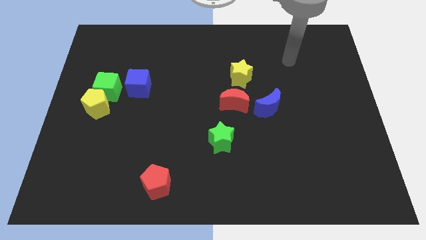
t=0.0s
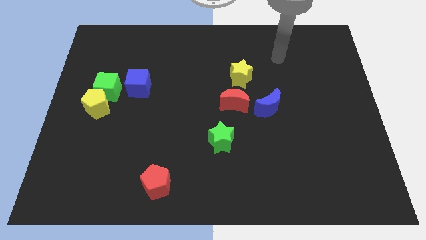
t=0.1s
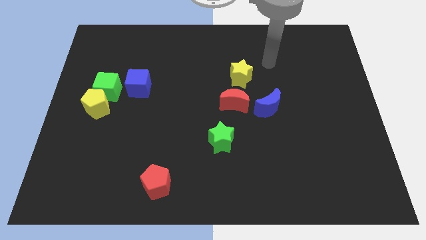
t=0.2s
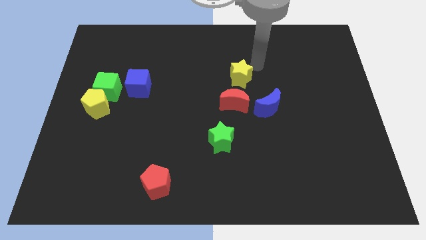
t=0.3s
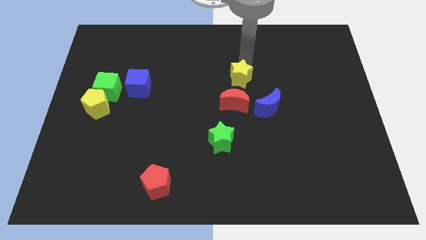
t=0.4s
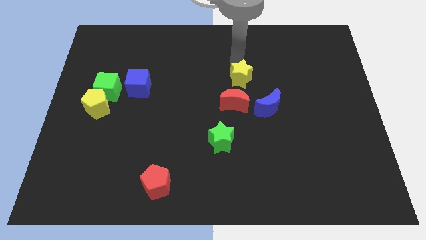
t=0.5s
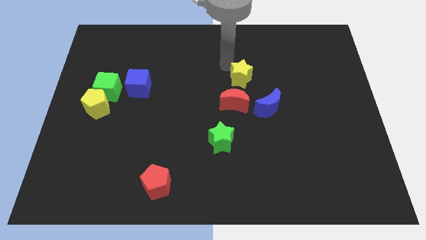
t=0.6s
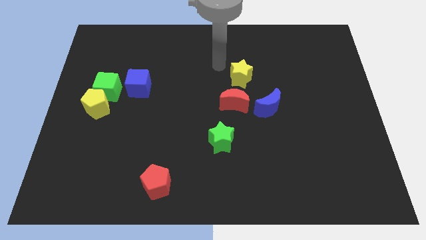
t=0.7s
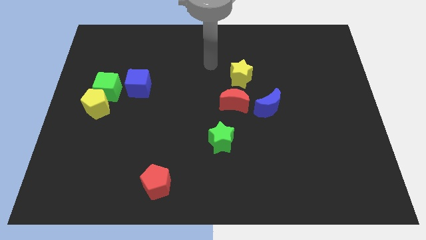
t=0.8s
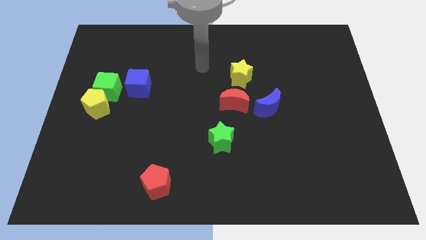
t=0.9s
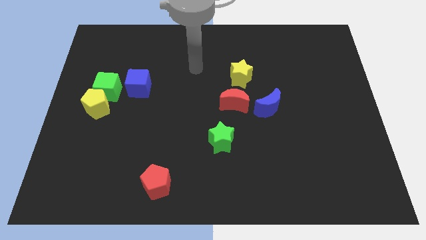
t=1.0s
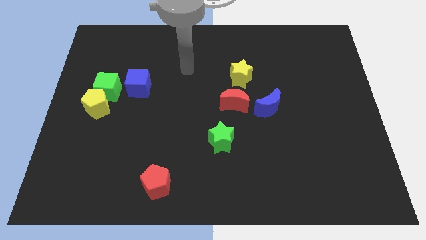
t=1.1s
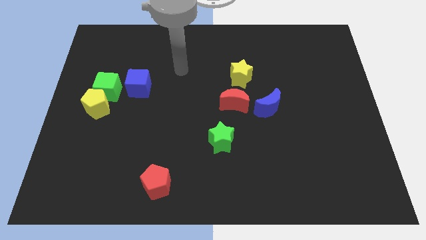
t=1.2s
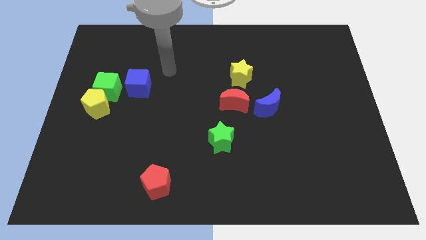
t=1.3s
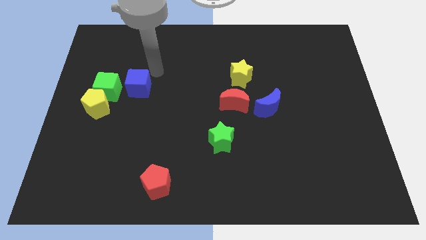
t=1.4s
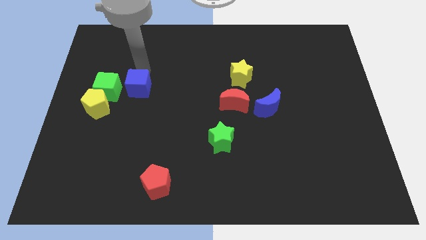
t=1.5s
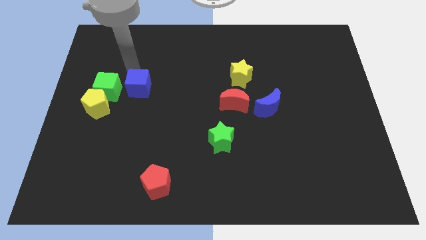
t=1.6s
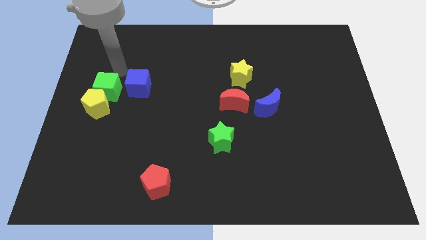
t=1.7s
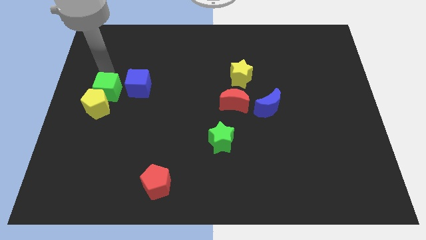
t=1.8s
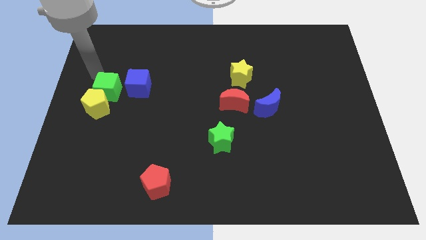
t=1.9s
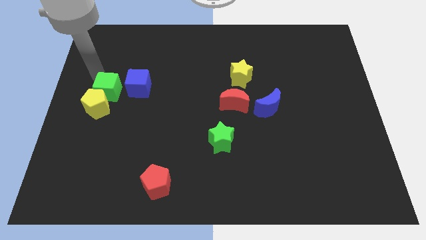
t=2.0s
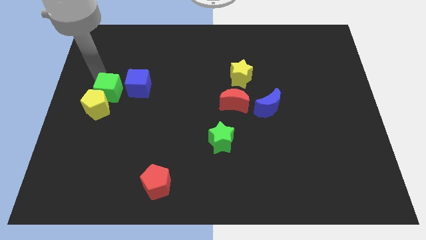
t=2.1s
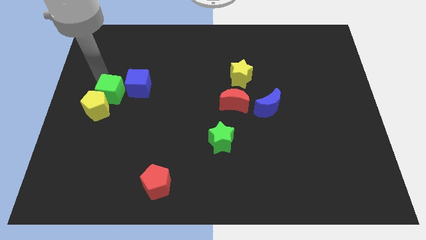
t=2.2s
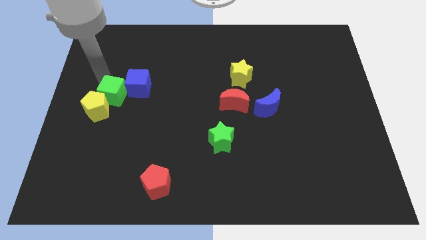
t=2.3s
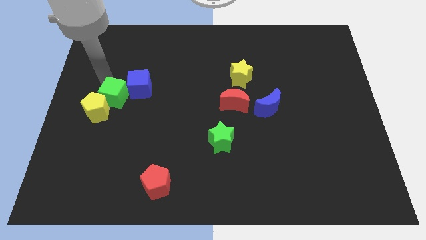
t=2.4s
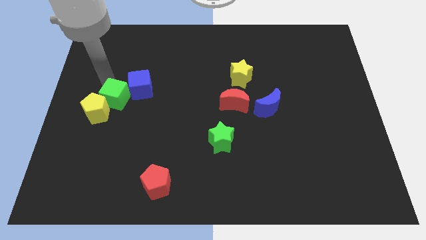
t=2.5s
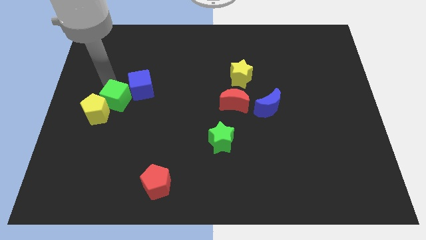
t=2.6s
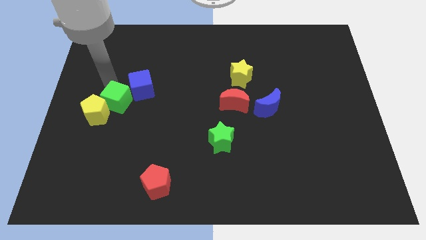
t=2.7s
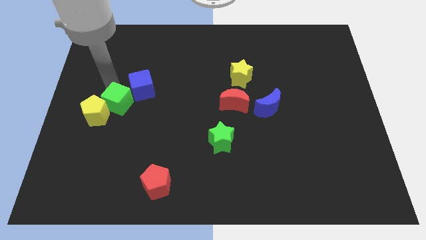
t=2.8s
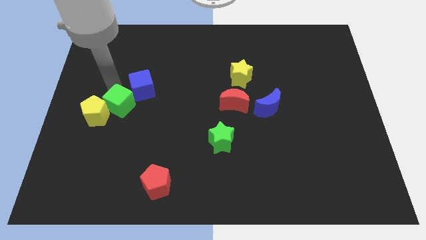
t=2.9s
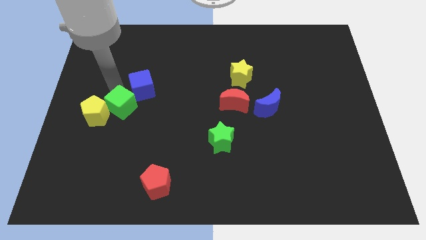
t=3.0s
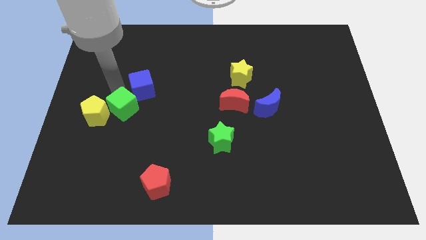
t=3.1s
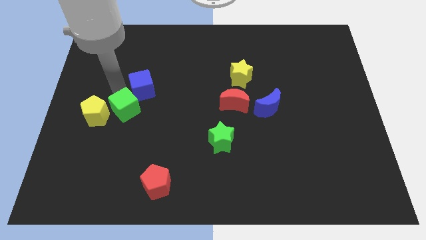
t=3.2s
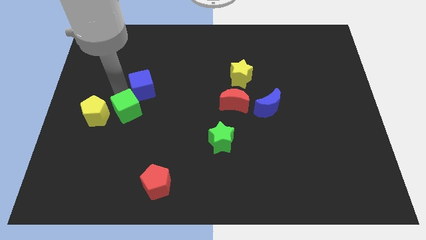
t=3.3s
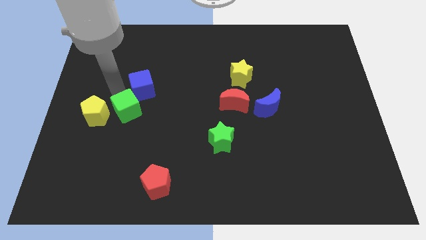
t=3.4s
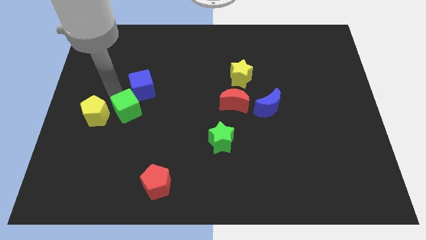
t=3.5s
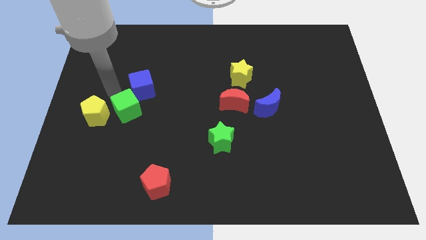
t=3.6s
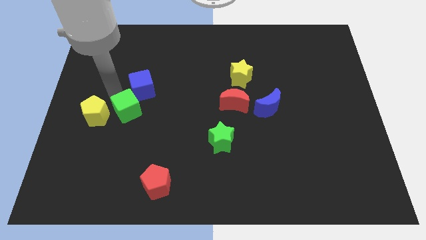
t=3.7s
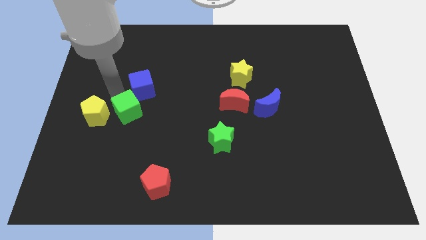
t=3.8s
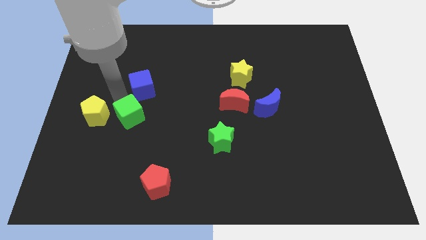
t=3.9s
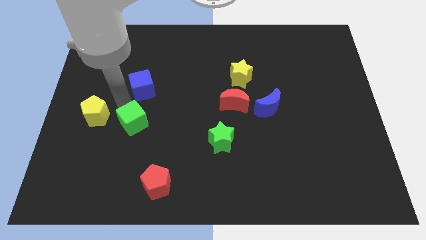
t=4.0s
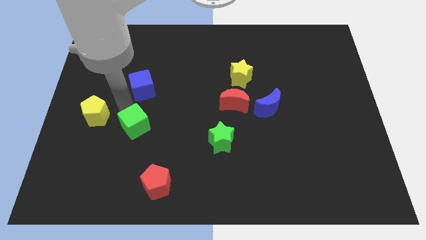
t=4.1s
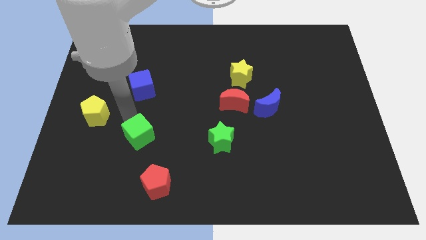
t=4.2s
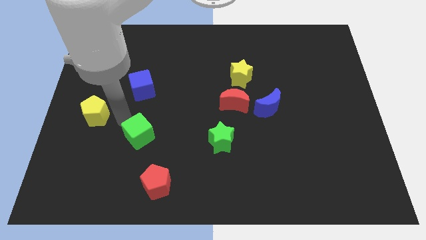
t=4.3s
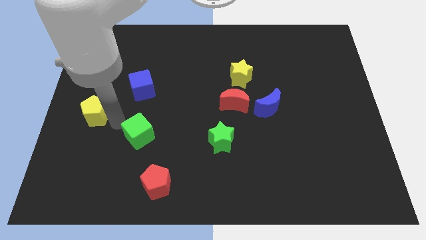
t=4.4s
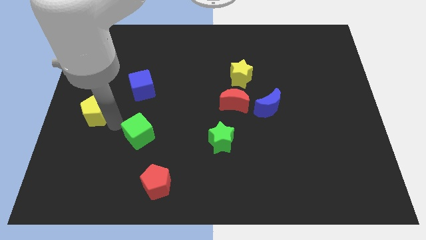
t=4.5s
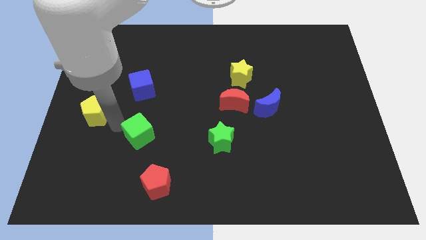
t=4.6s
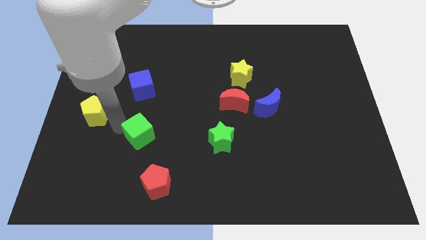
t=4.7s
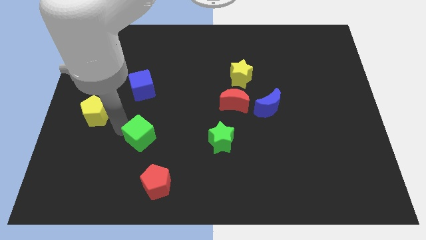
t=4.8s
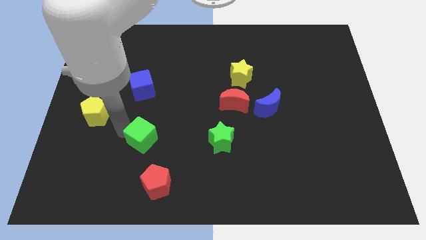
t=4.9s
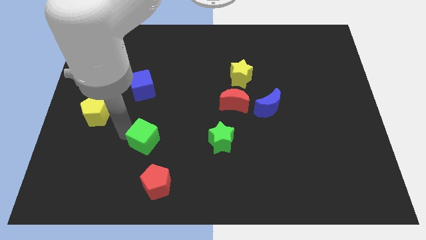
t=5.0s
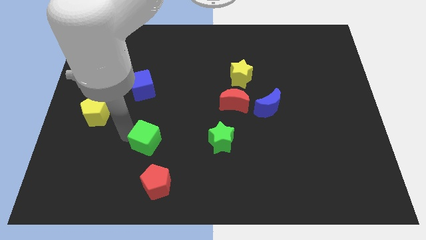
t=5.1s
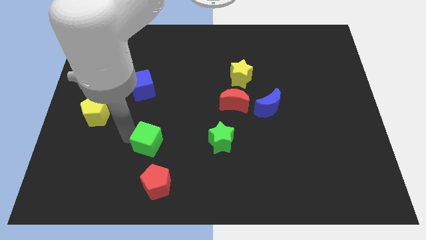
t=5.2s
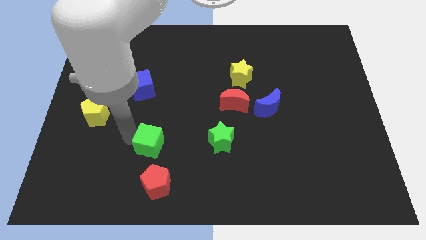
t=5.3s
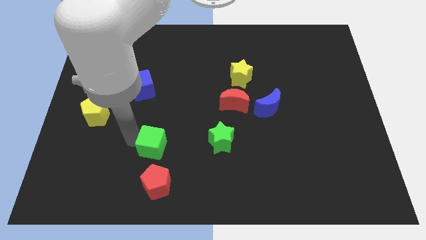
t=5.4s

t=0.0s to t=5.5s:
slide the green cube diagonally downwards and to the right

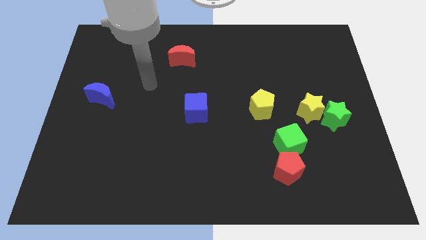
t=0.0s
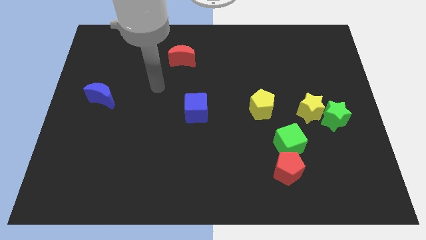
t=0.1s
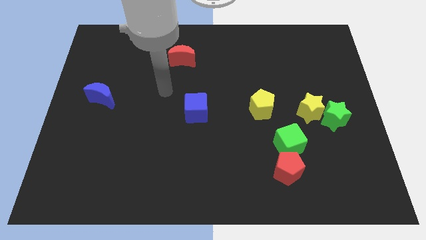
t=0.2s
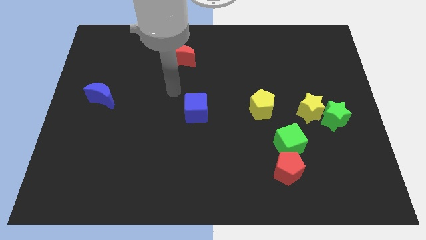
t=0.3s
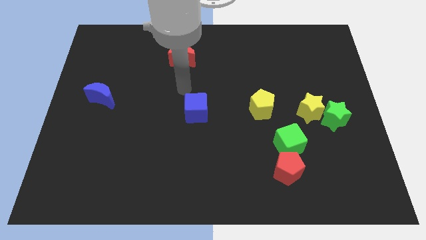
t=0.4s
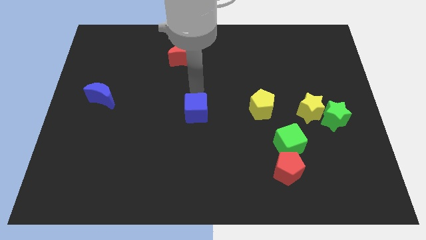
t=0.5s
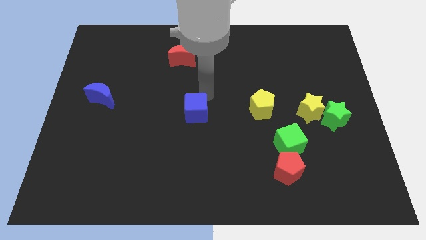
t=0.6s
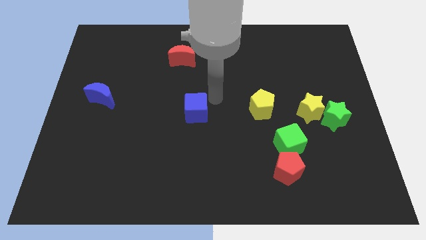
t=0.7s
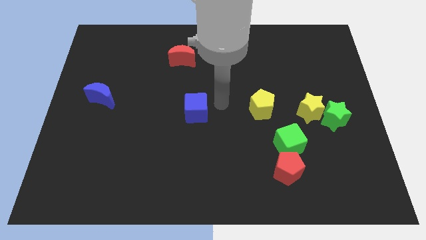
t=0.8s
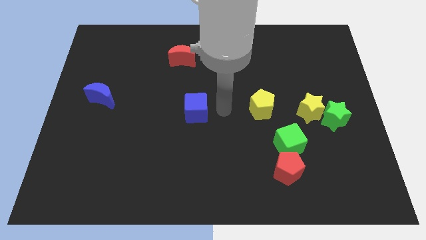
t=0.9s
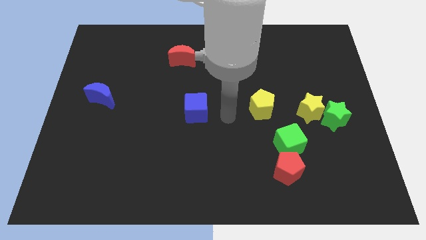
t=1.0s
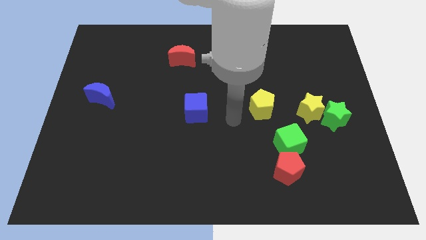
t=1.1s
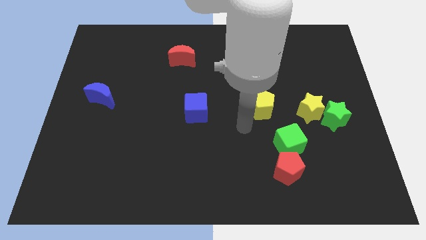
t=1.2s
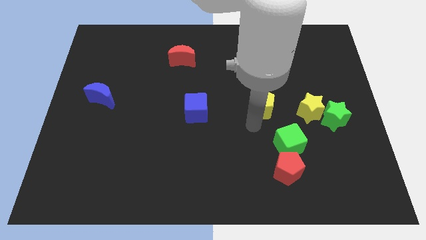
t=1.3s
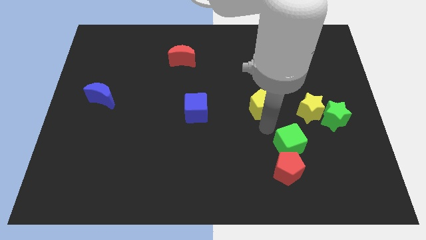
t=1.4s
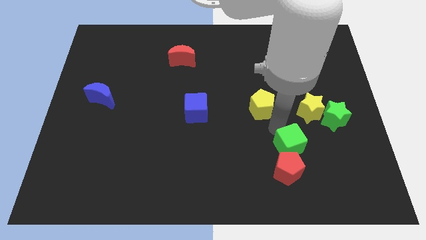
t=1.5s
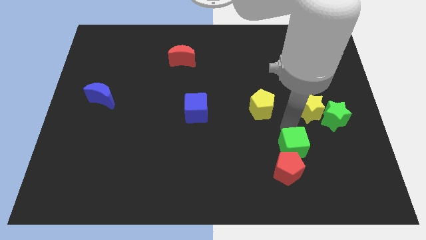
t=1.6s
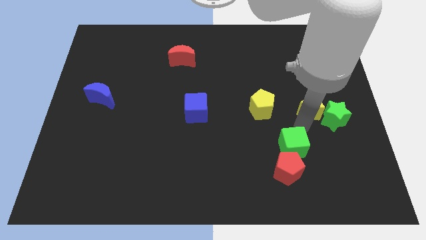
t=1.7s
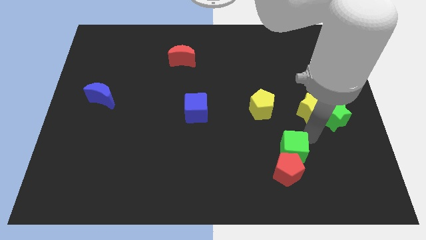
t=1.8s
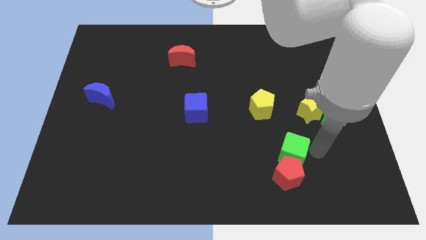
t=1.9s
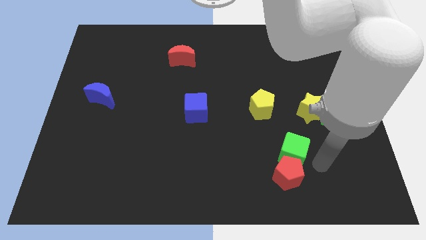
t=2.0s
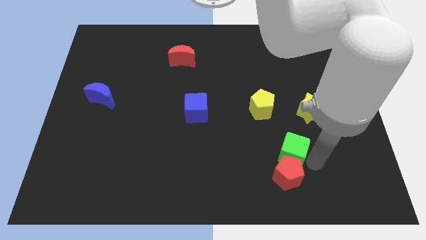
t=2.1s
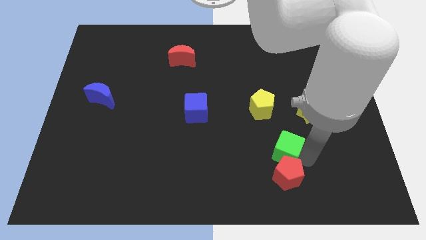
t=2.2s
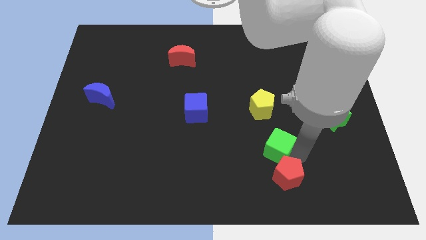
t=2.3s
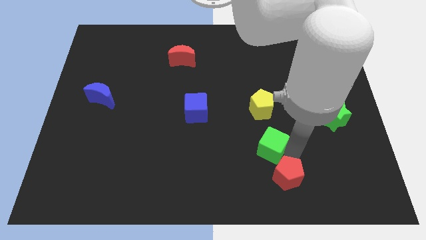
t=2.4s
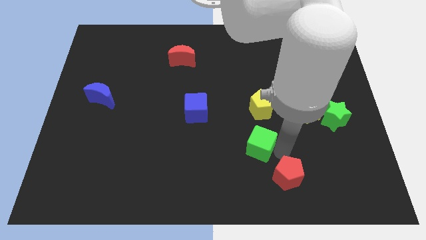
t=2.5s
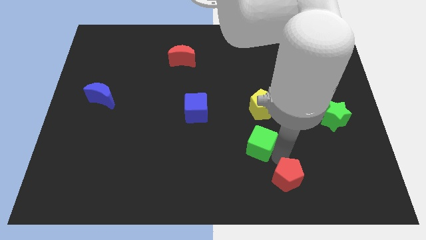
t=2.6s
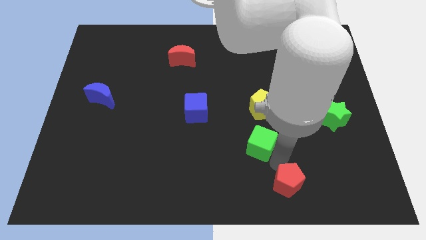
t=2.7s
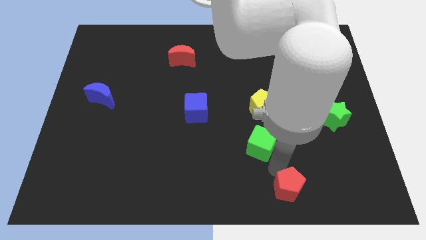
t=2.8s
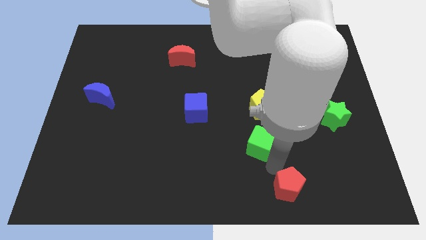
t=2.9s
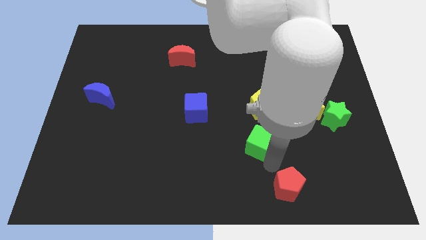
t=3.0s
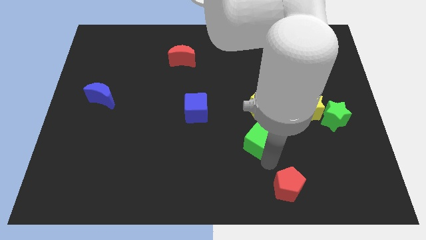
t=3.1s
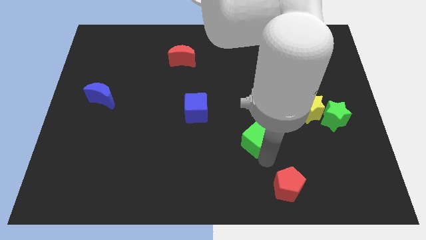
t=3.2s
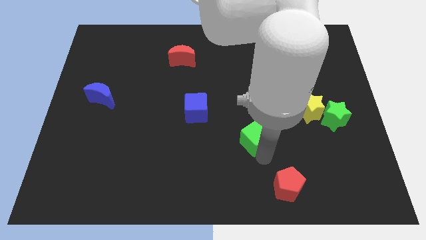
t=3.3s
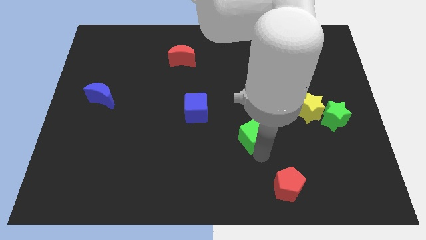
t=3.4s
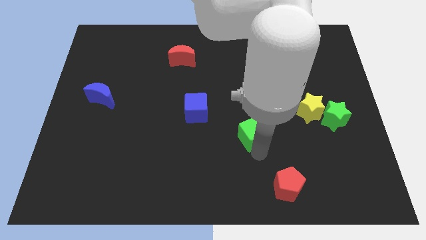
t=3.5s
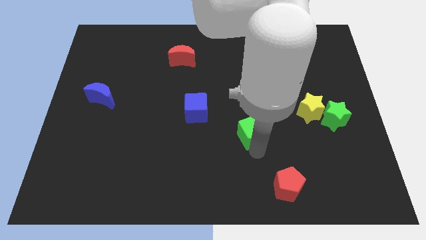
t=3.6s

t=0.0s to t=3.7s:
slightly push the green cube up and left diagonally
